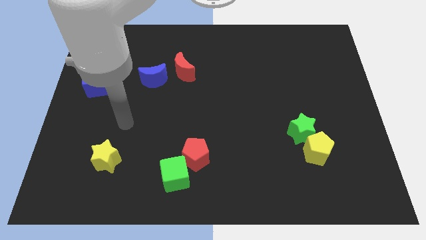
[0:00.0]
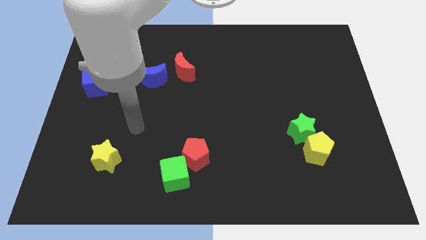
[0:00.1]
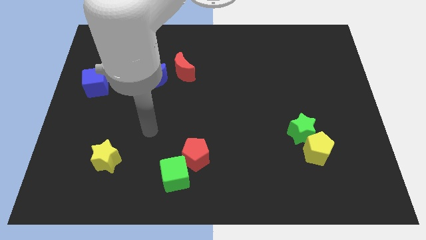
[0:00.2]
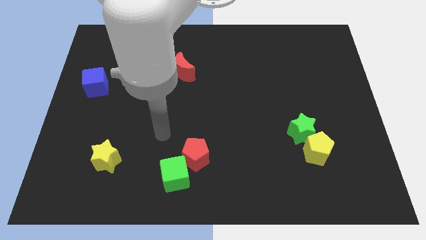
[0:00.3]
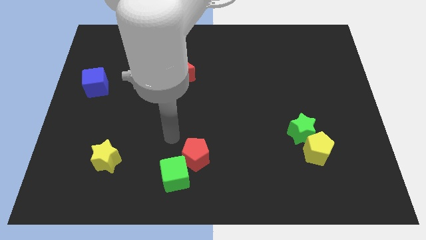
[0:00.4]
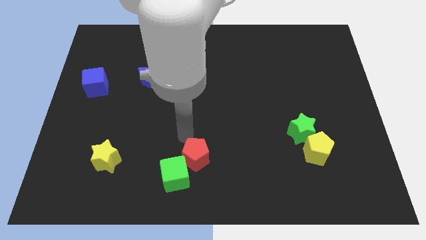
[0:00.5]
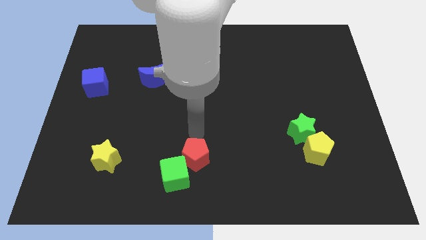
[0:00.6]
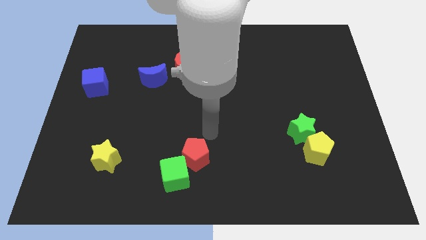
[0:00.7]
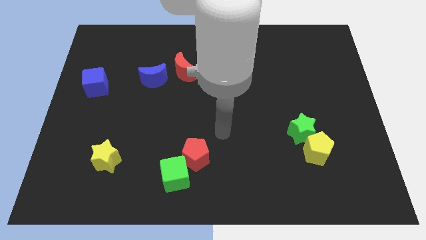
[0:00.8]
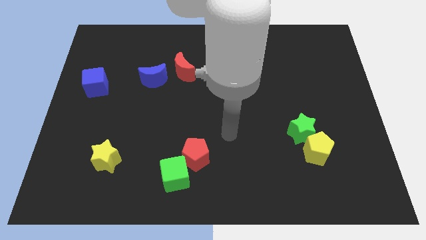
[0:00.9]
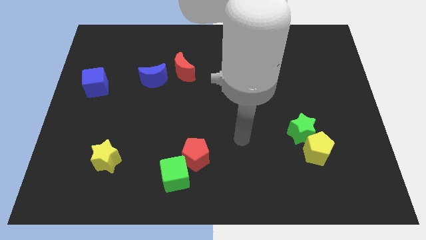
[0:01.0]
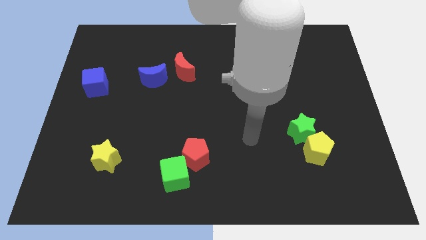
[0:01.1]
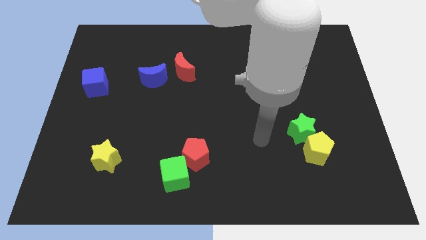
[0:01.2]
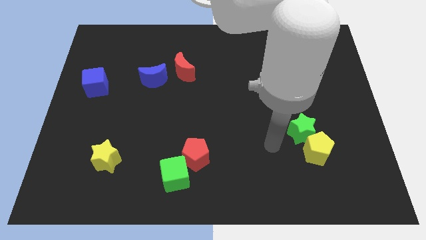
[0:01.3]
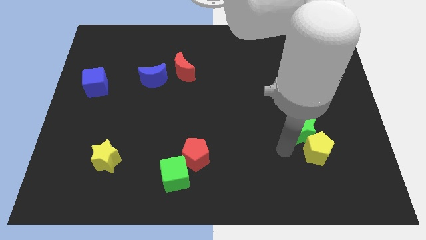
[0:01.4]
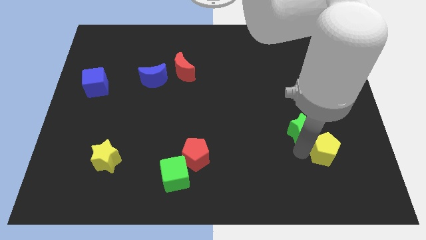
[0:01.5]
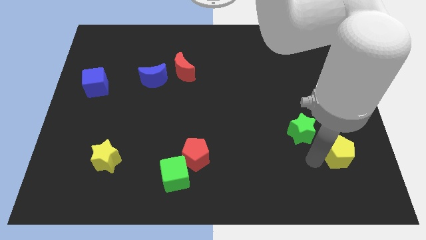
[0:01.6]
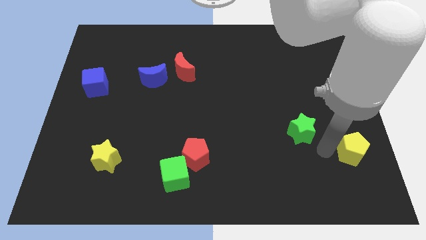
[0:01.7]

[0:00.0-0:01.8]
move the green star away from the yellow pentagon

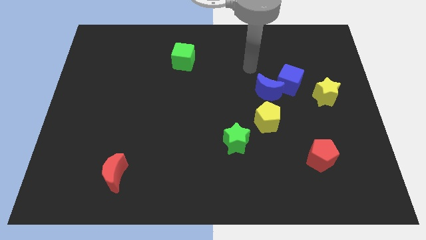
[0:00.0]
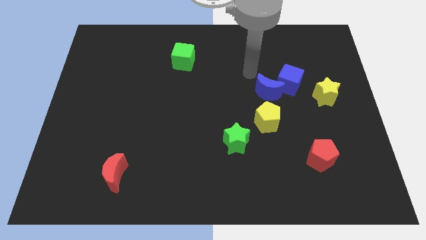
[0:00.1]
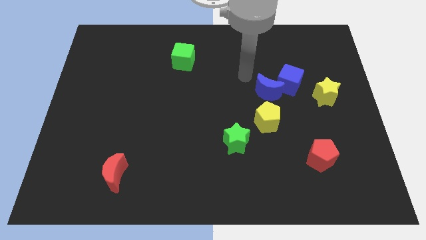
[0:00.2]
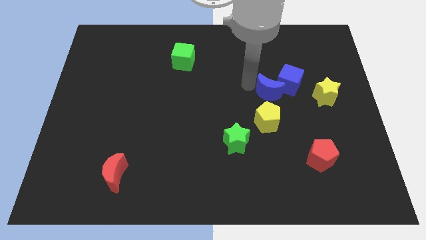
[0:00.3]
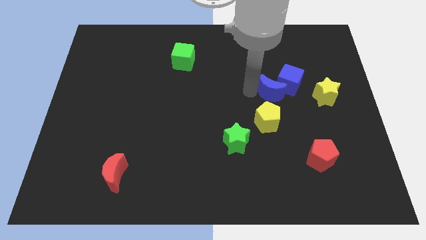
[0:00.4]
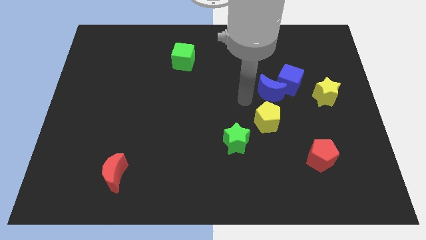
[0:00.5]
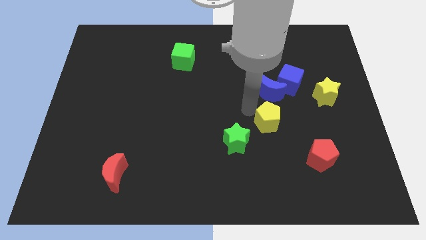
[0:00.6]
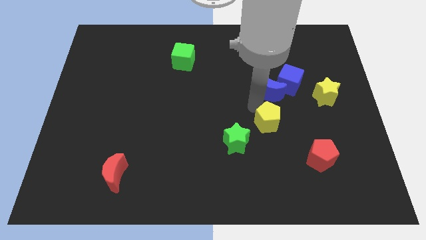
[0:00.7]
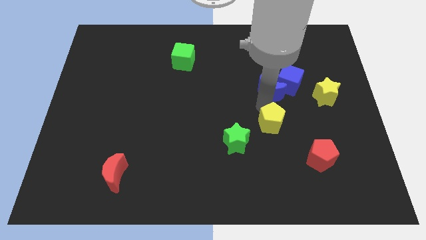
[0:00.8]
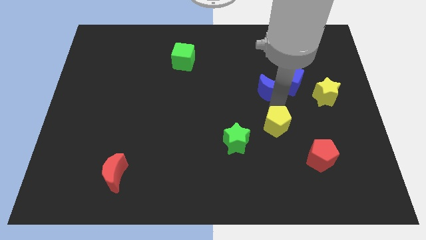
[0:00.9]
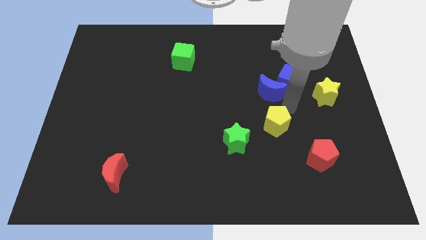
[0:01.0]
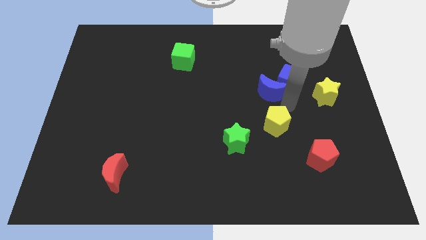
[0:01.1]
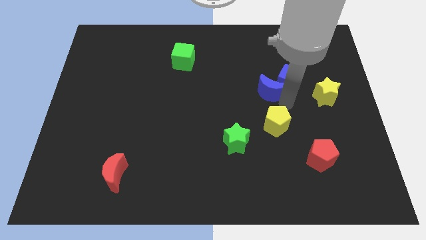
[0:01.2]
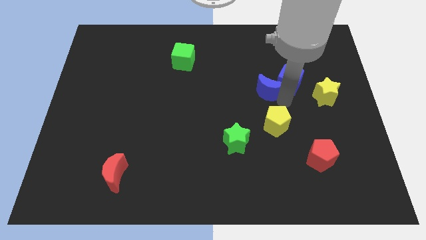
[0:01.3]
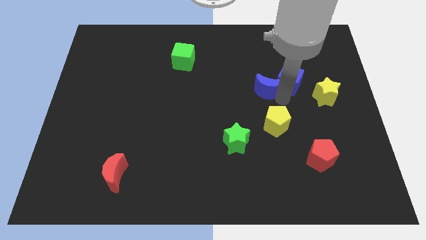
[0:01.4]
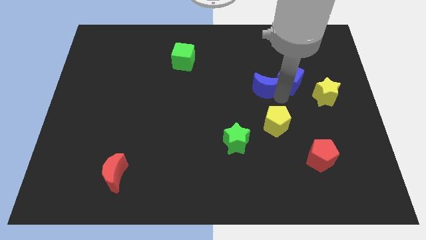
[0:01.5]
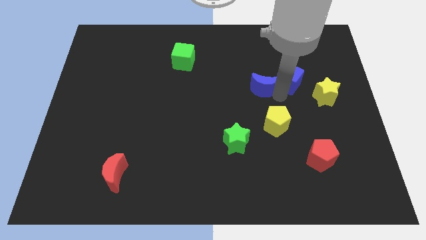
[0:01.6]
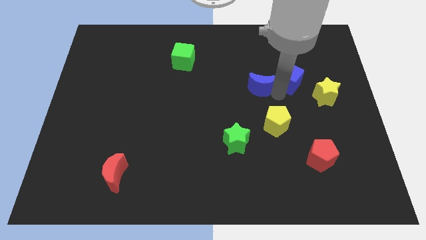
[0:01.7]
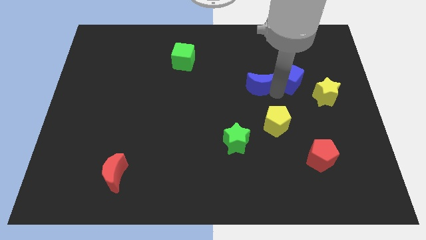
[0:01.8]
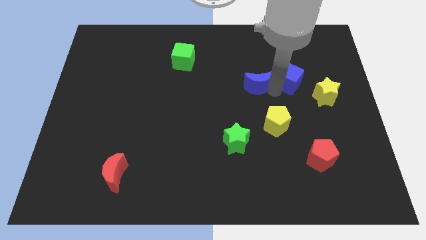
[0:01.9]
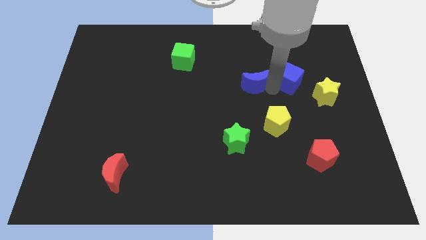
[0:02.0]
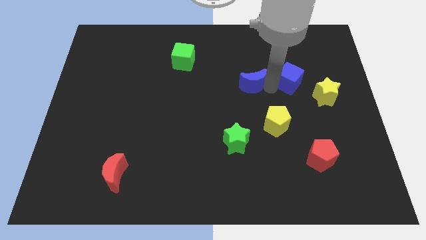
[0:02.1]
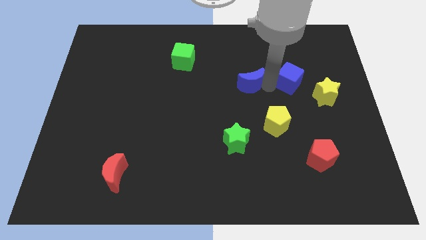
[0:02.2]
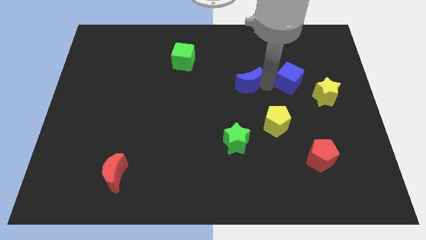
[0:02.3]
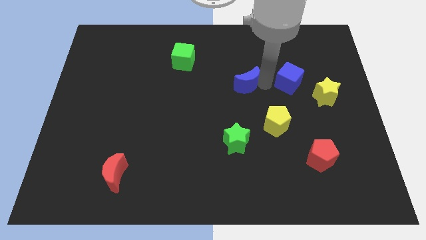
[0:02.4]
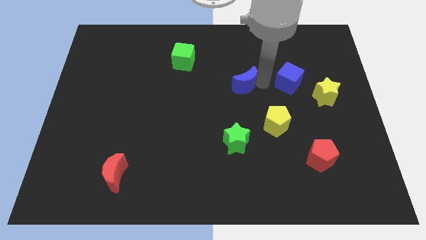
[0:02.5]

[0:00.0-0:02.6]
move the blue moon away from the blue cube and yellow pentagon

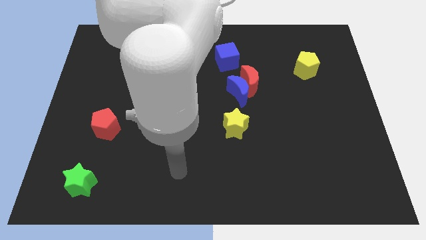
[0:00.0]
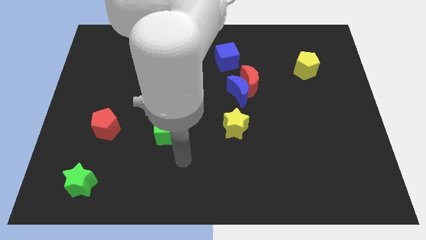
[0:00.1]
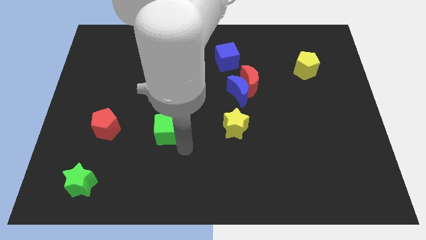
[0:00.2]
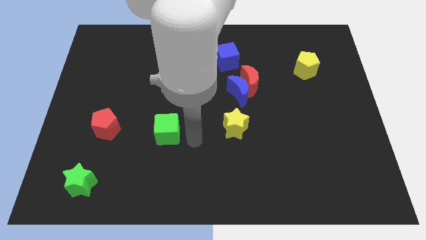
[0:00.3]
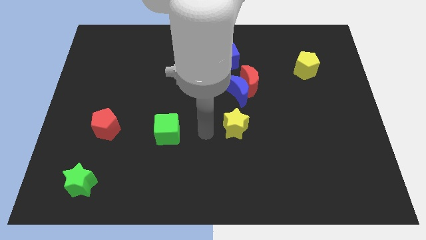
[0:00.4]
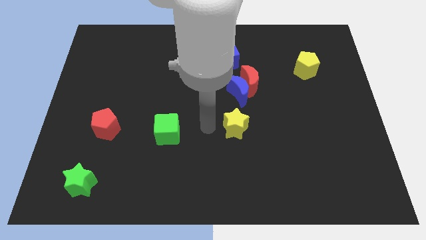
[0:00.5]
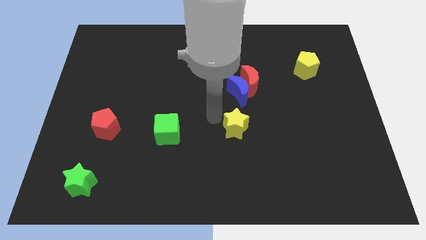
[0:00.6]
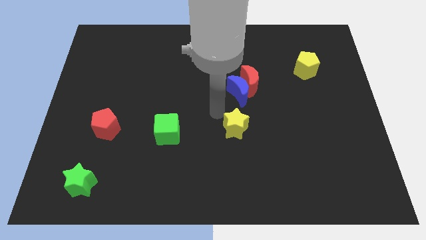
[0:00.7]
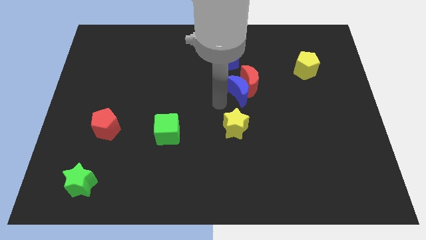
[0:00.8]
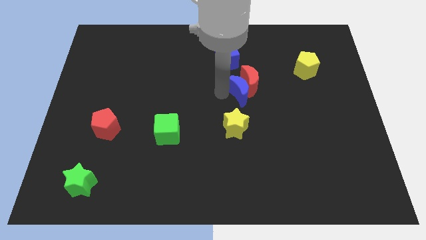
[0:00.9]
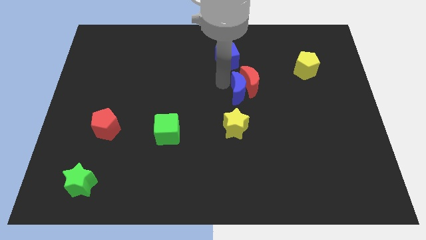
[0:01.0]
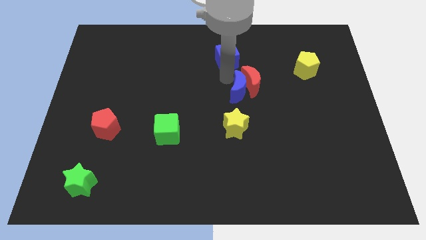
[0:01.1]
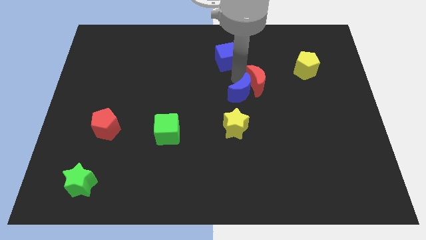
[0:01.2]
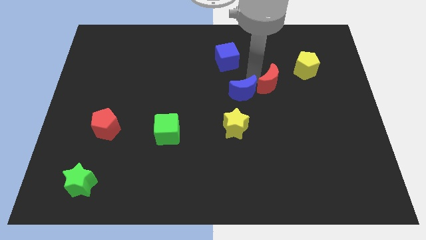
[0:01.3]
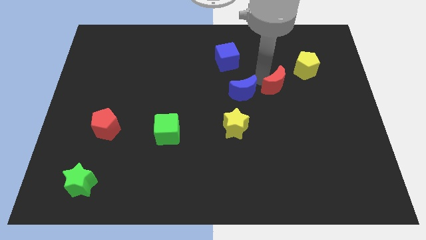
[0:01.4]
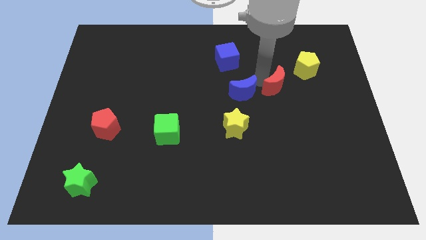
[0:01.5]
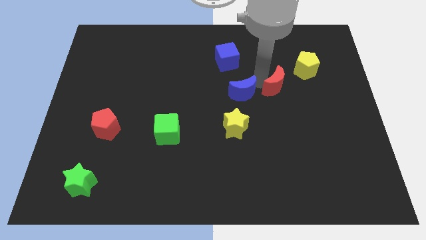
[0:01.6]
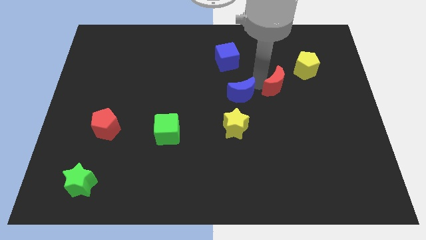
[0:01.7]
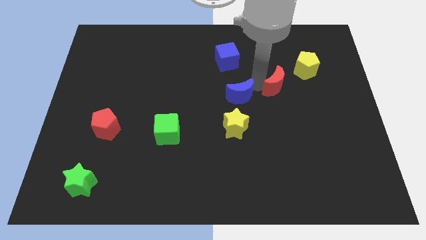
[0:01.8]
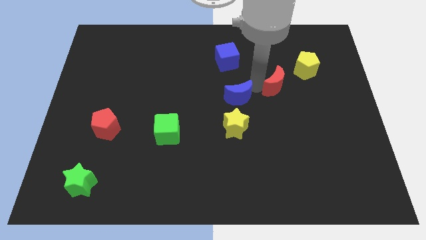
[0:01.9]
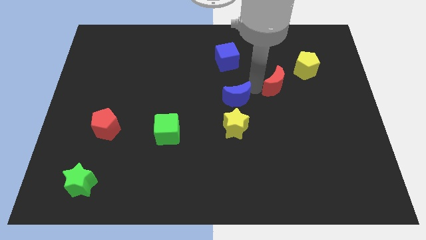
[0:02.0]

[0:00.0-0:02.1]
separate the blue moon from the red moon

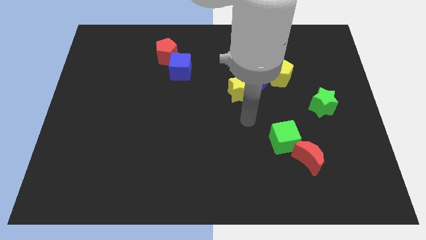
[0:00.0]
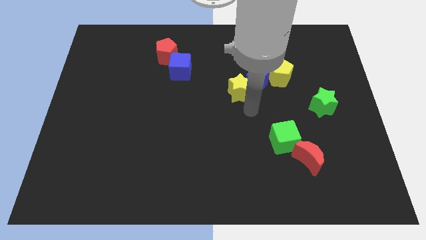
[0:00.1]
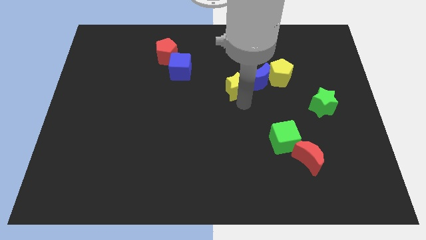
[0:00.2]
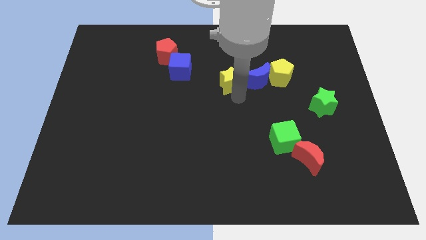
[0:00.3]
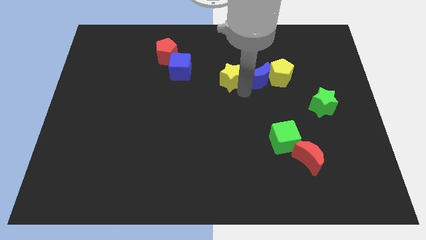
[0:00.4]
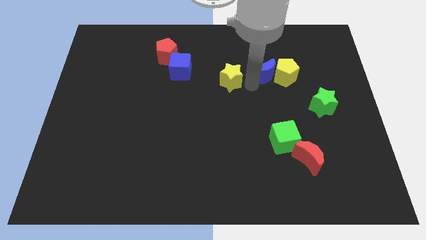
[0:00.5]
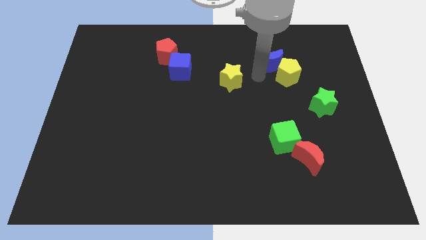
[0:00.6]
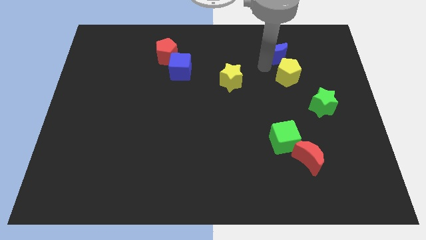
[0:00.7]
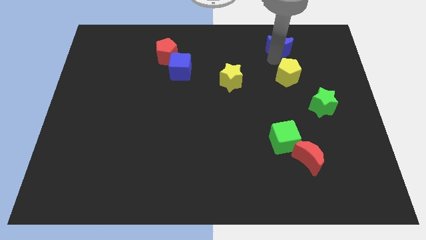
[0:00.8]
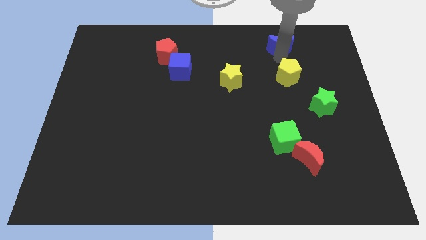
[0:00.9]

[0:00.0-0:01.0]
pull the yellow pentagon apart from the blue moon

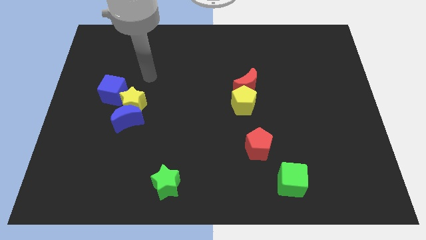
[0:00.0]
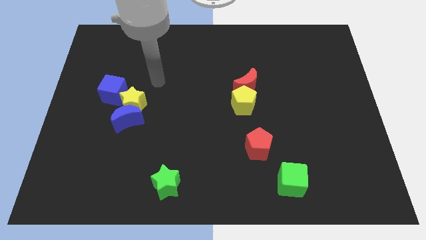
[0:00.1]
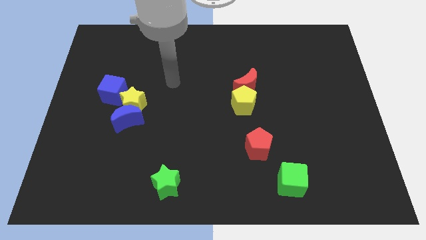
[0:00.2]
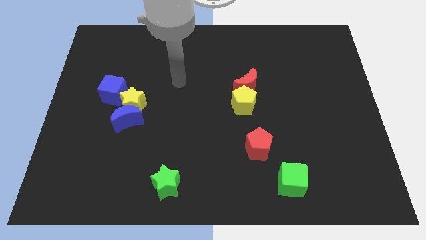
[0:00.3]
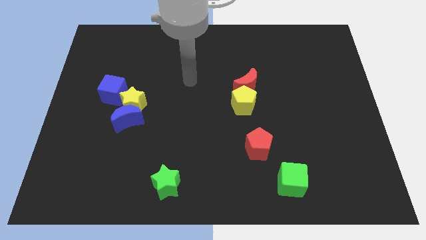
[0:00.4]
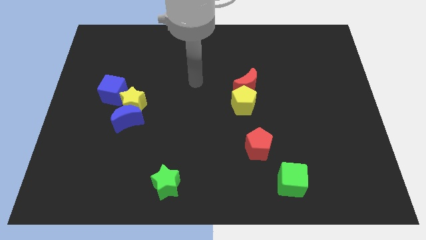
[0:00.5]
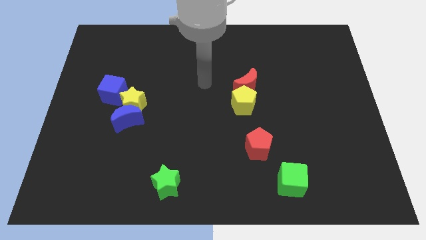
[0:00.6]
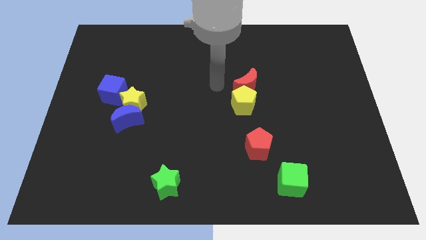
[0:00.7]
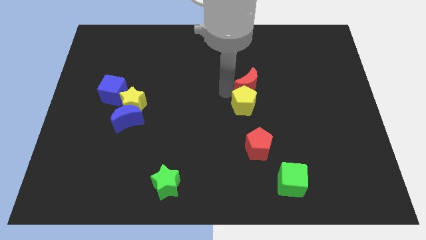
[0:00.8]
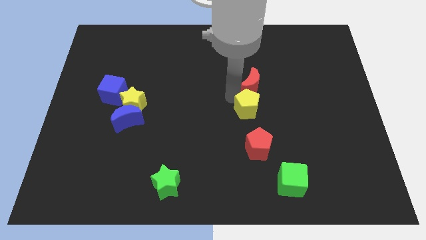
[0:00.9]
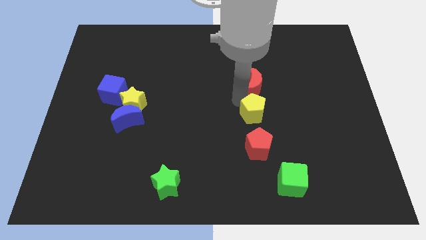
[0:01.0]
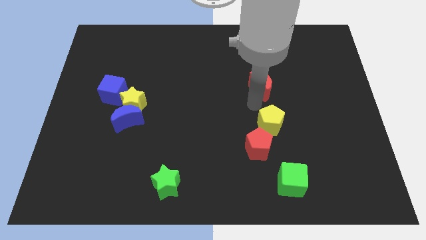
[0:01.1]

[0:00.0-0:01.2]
pull the red moon apart from the yellow pentagon

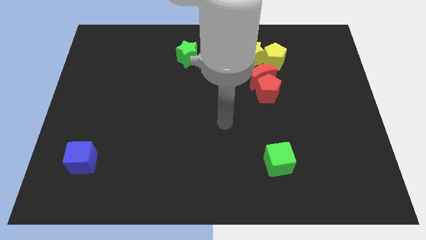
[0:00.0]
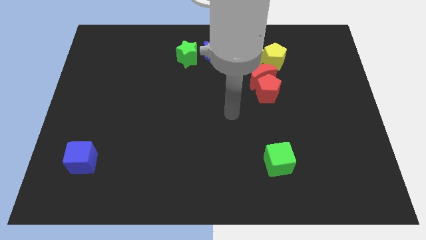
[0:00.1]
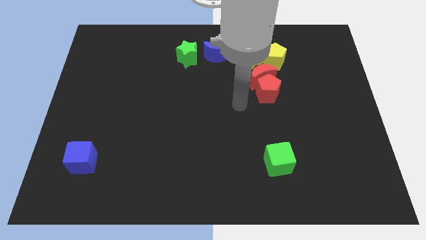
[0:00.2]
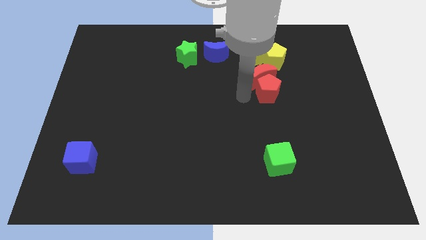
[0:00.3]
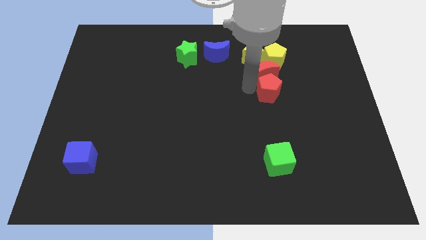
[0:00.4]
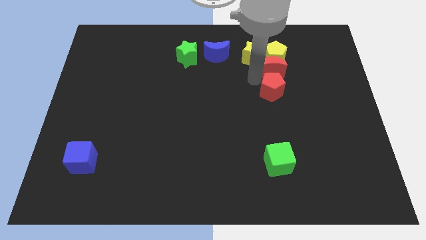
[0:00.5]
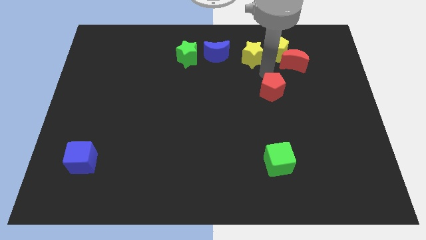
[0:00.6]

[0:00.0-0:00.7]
pull the red pentagon apart from the red moon

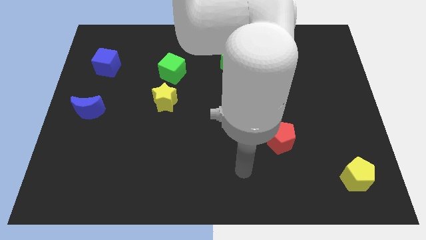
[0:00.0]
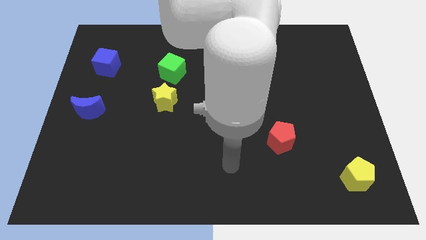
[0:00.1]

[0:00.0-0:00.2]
pull the green cube apart from the yellow star
